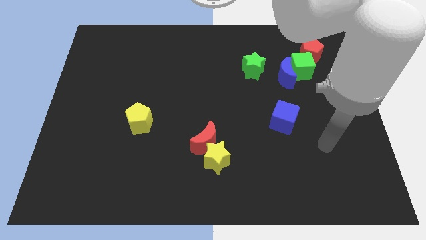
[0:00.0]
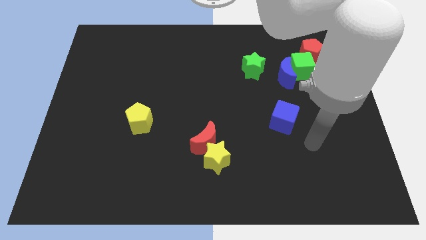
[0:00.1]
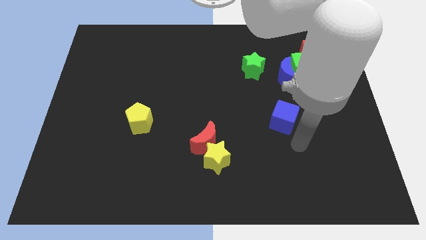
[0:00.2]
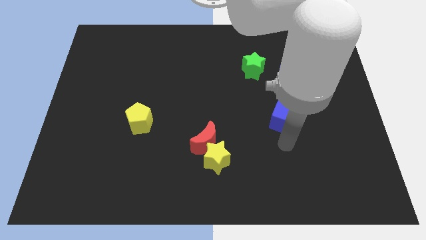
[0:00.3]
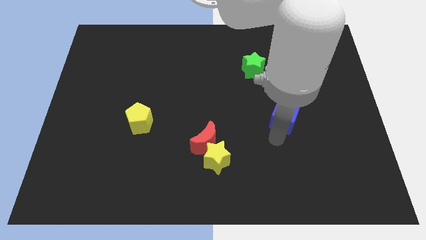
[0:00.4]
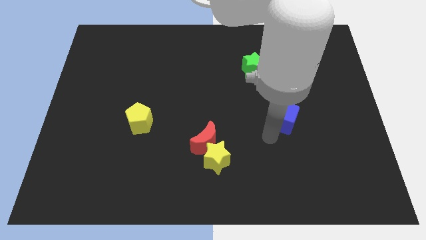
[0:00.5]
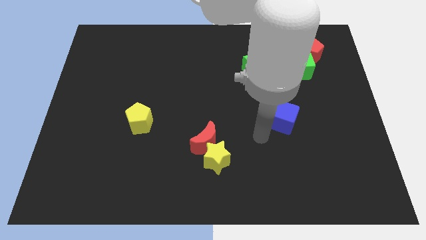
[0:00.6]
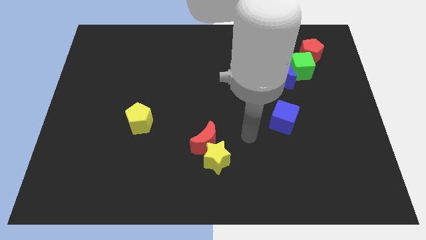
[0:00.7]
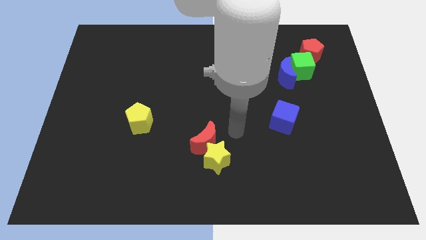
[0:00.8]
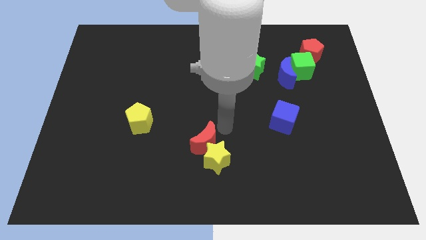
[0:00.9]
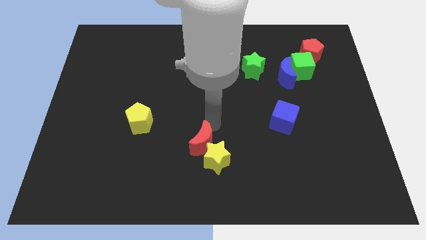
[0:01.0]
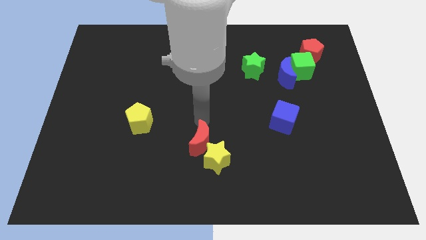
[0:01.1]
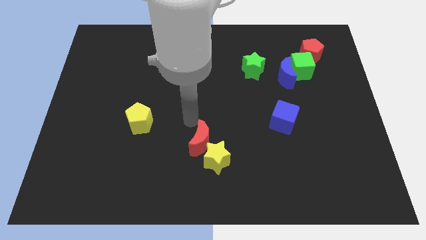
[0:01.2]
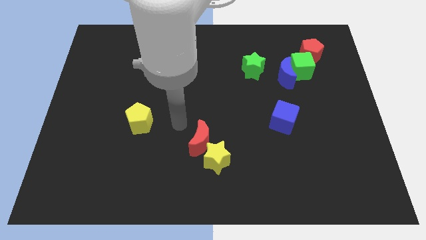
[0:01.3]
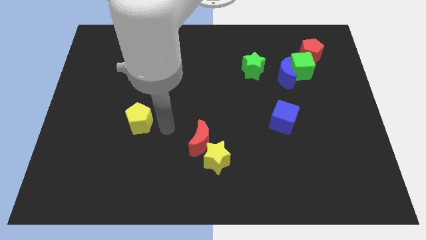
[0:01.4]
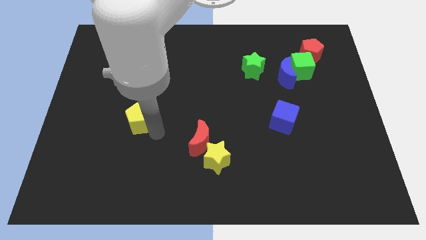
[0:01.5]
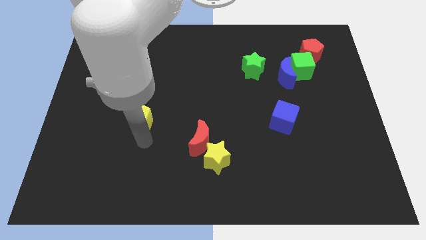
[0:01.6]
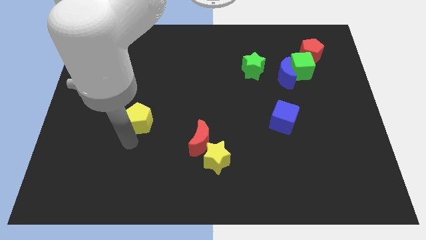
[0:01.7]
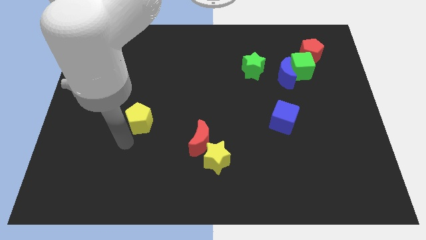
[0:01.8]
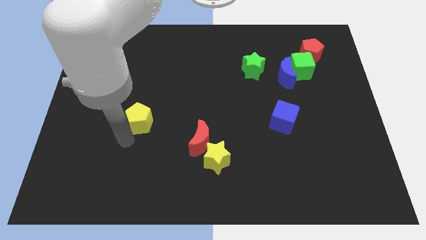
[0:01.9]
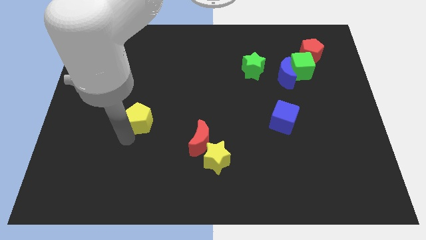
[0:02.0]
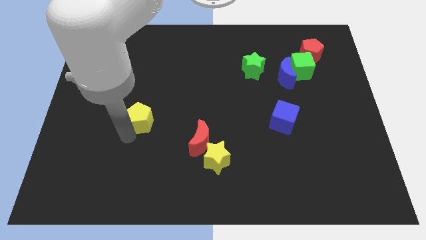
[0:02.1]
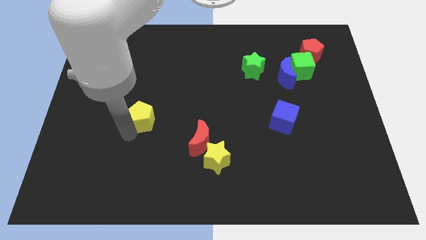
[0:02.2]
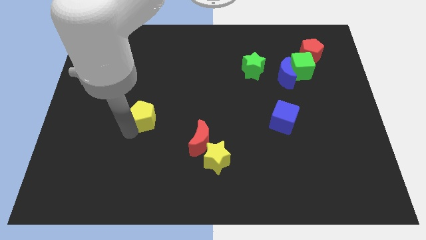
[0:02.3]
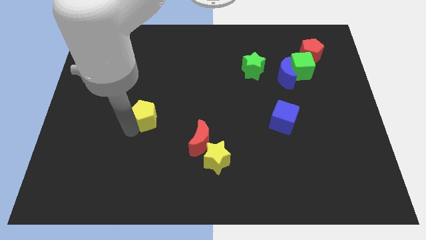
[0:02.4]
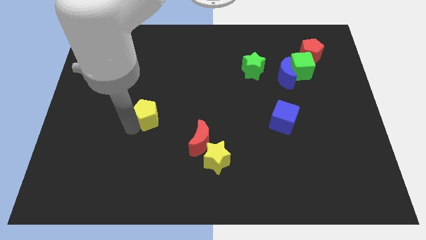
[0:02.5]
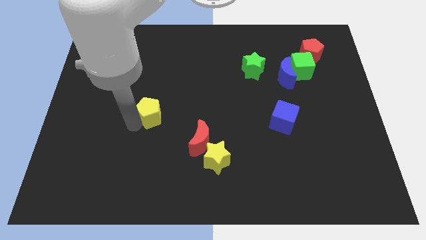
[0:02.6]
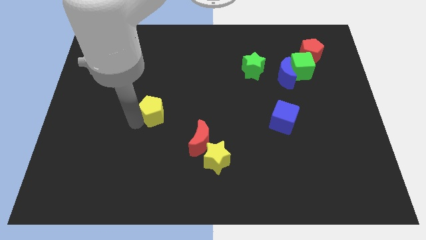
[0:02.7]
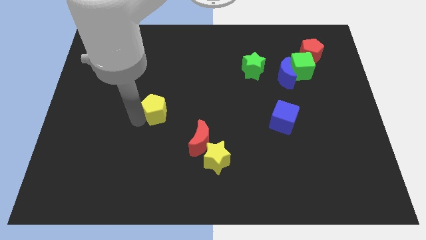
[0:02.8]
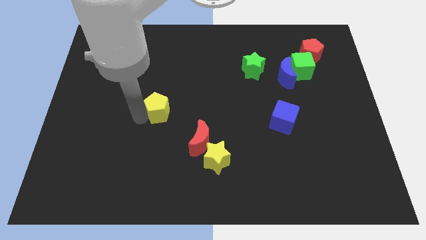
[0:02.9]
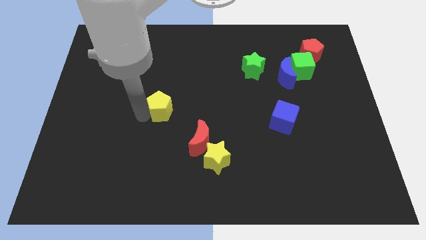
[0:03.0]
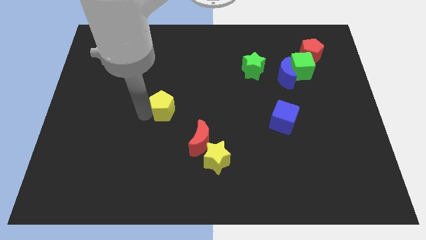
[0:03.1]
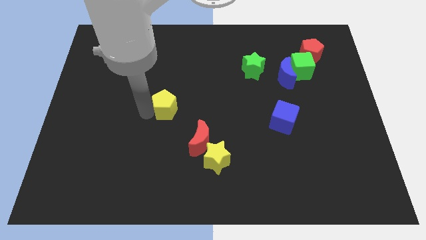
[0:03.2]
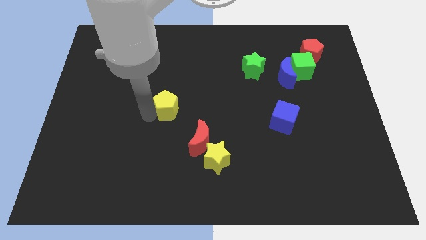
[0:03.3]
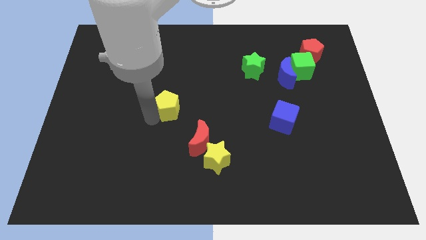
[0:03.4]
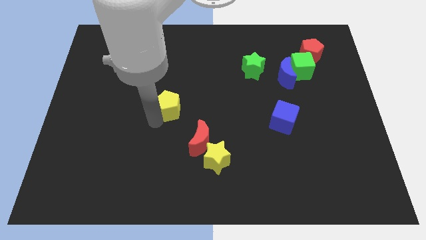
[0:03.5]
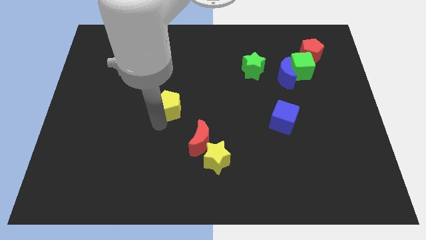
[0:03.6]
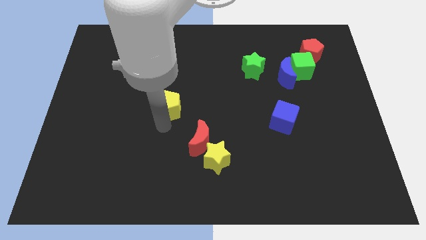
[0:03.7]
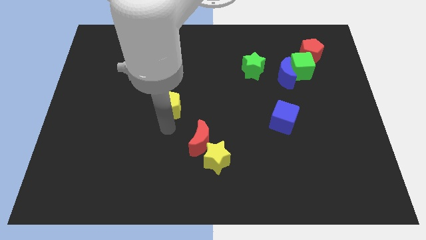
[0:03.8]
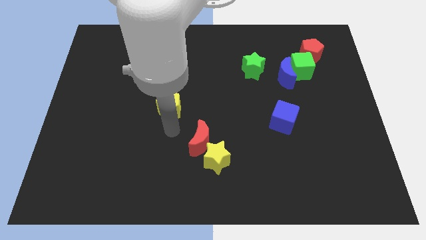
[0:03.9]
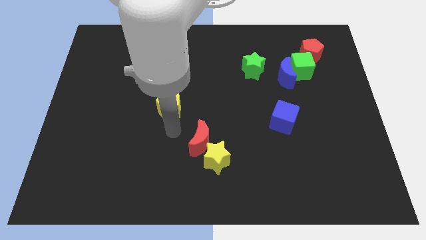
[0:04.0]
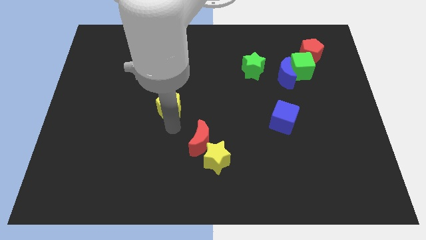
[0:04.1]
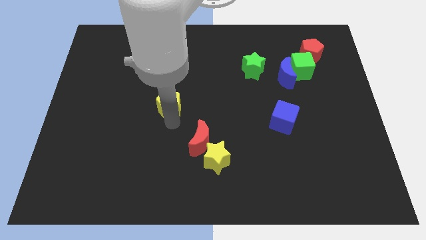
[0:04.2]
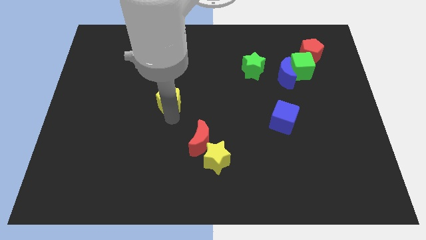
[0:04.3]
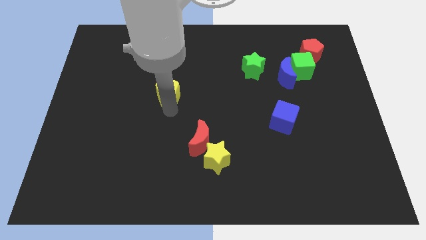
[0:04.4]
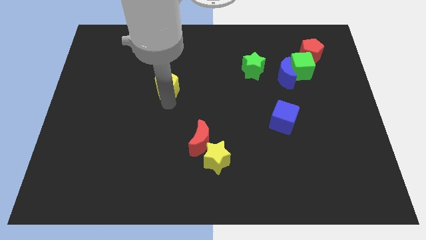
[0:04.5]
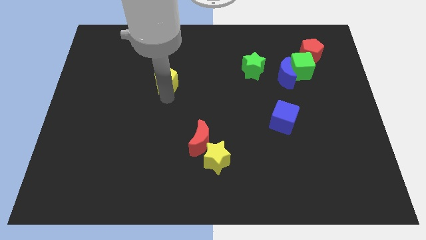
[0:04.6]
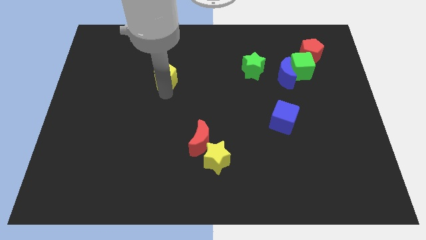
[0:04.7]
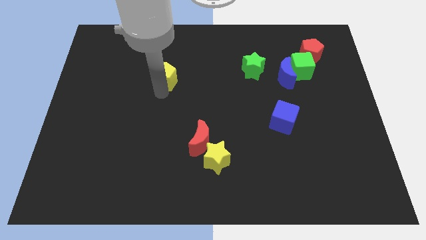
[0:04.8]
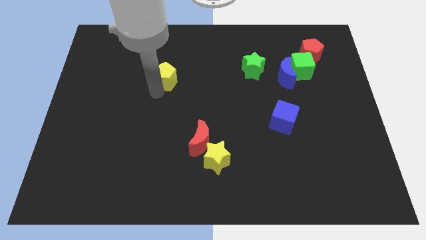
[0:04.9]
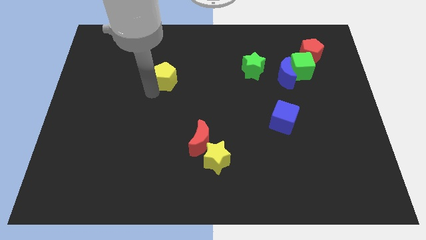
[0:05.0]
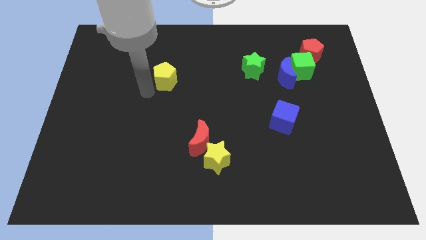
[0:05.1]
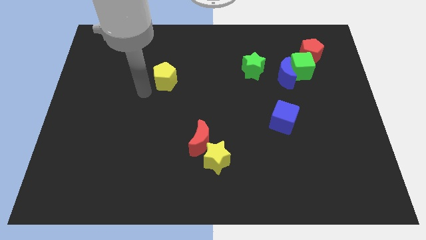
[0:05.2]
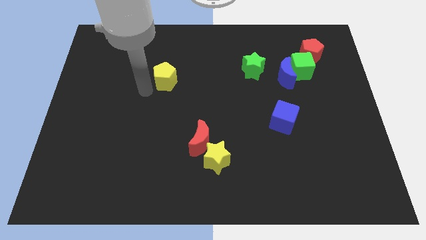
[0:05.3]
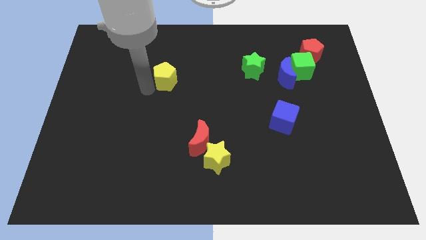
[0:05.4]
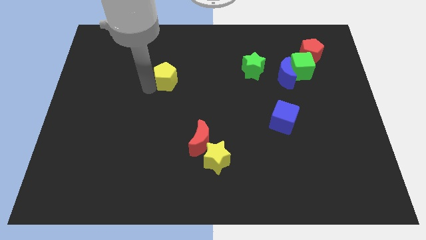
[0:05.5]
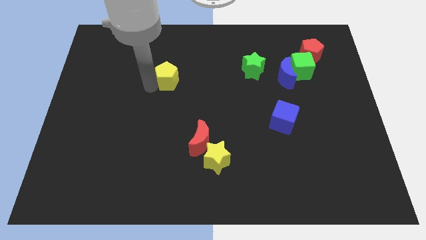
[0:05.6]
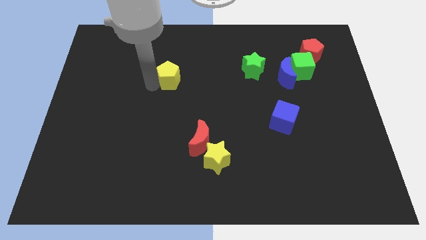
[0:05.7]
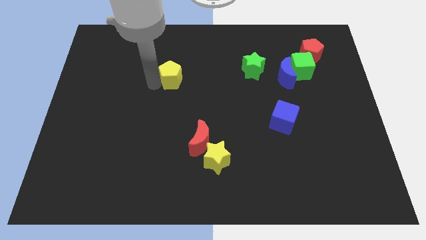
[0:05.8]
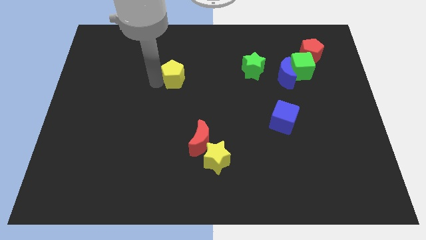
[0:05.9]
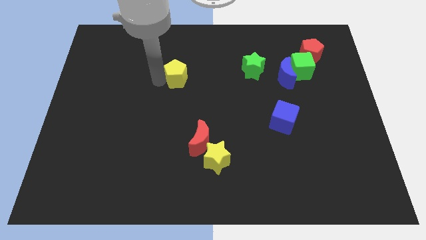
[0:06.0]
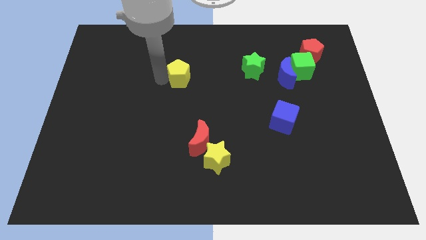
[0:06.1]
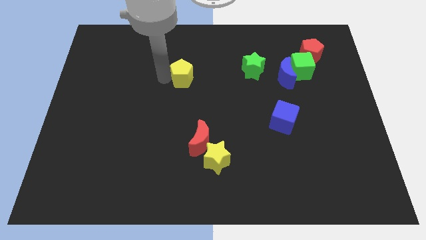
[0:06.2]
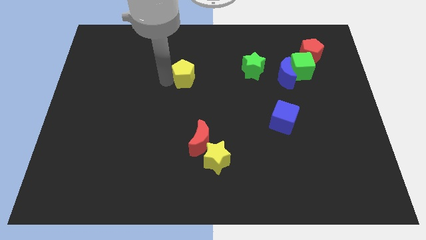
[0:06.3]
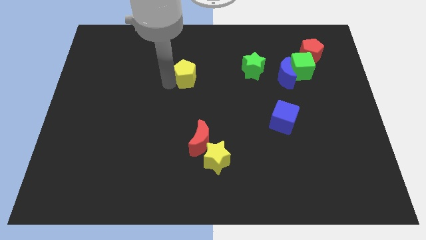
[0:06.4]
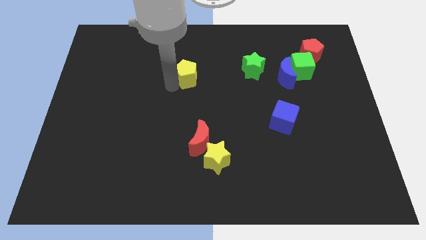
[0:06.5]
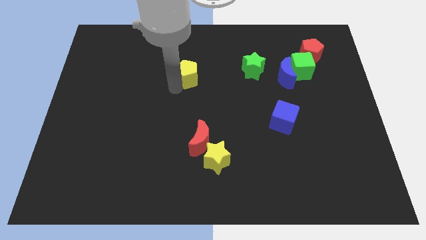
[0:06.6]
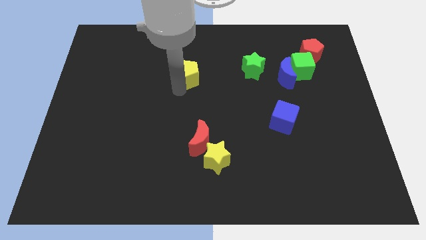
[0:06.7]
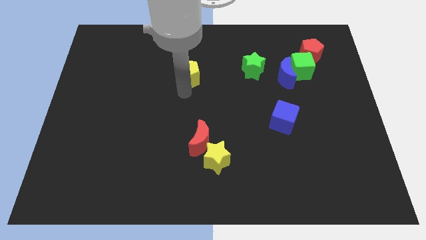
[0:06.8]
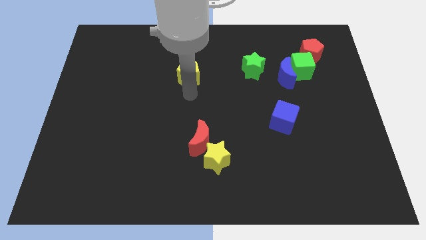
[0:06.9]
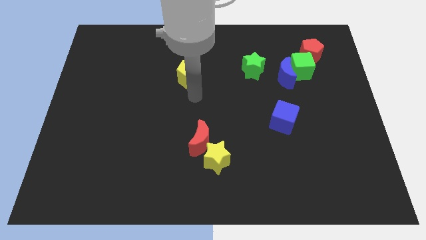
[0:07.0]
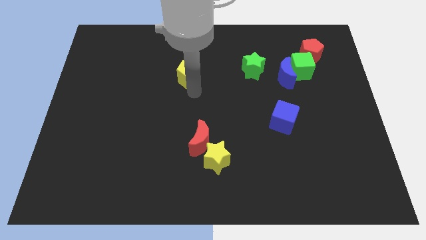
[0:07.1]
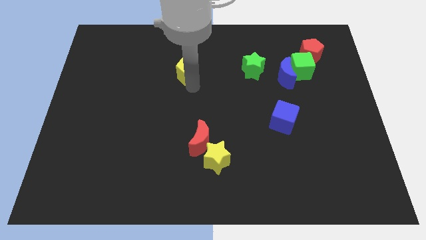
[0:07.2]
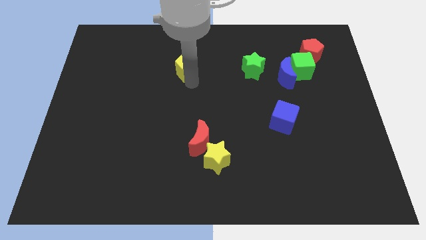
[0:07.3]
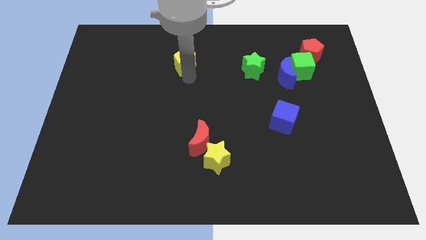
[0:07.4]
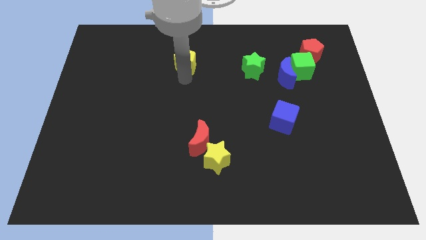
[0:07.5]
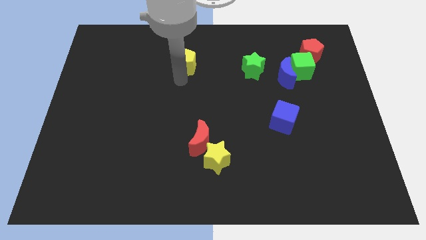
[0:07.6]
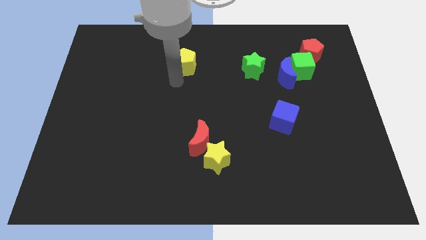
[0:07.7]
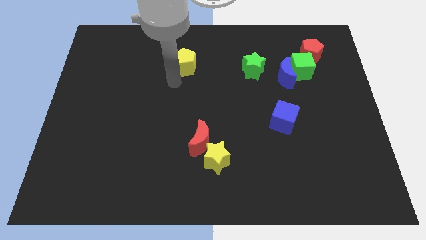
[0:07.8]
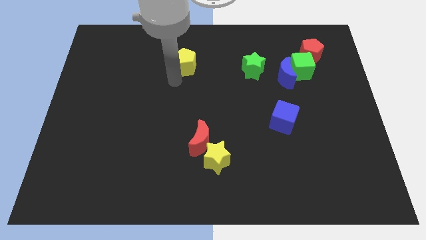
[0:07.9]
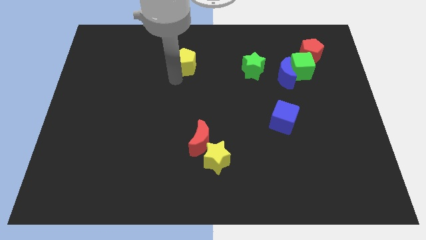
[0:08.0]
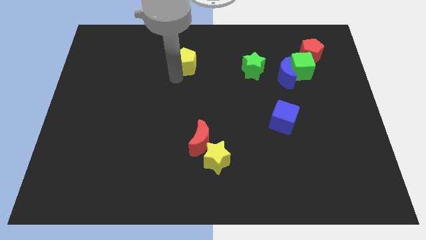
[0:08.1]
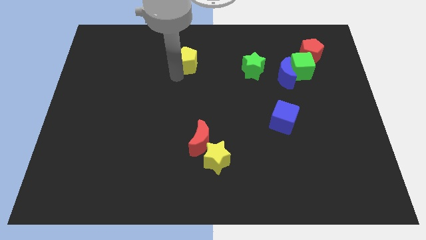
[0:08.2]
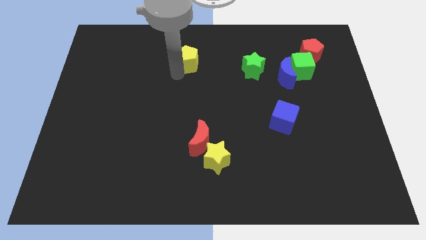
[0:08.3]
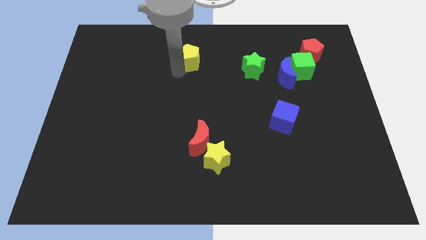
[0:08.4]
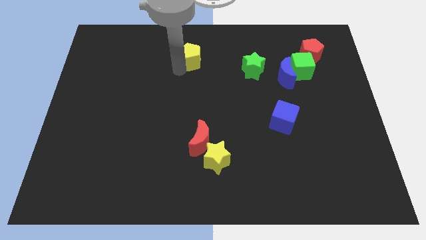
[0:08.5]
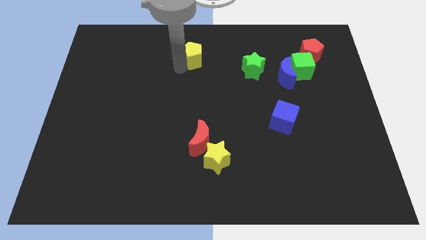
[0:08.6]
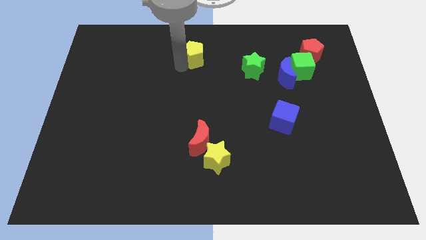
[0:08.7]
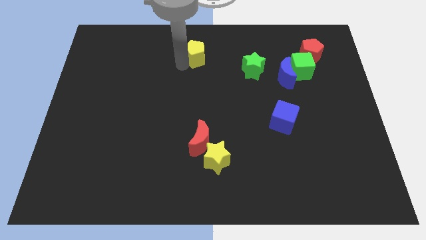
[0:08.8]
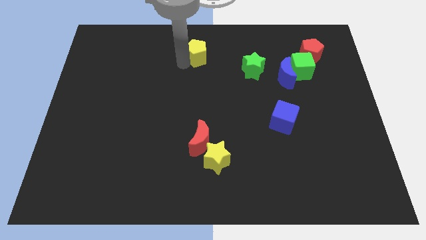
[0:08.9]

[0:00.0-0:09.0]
slide the yellow pentagon to the towards your base
